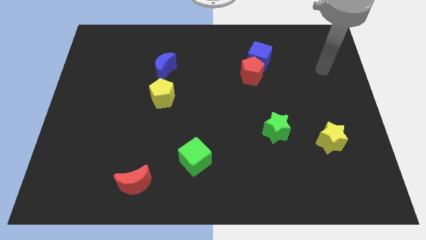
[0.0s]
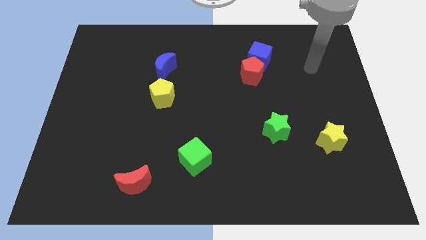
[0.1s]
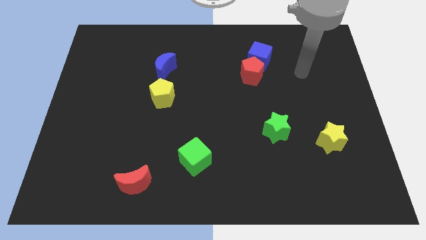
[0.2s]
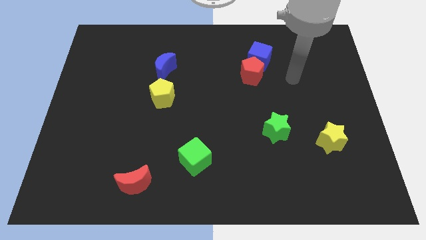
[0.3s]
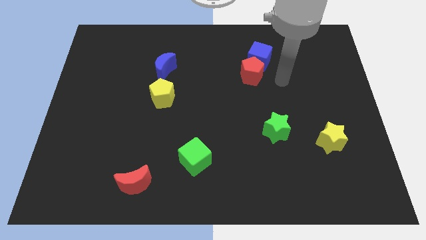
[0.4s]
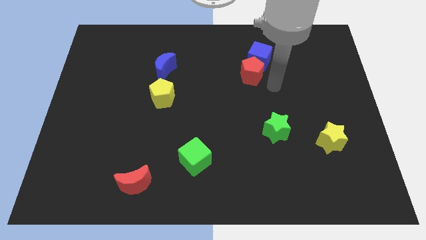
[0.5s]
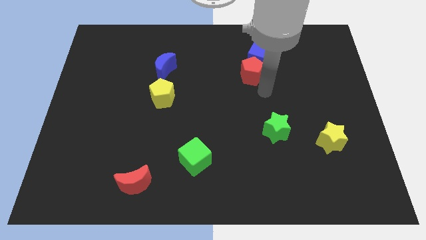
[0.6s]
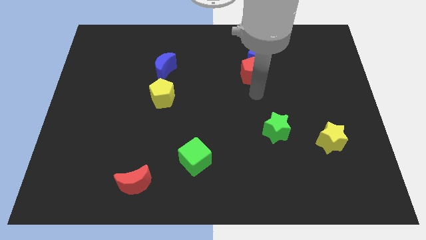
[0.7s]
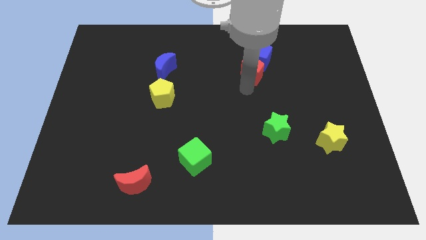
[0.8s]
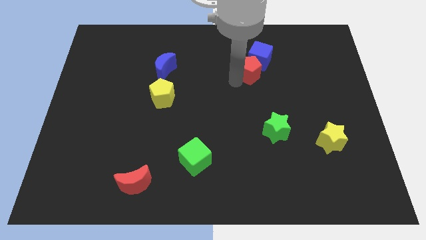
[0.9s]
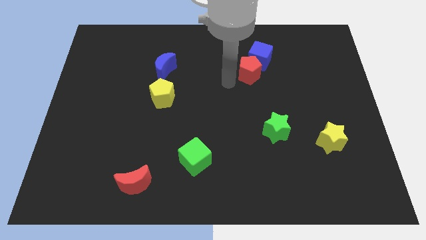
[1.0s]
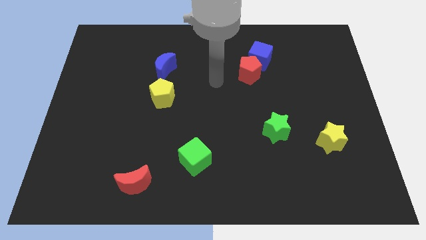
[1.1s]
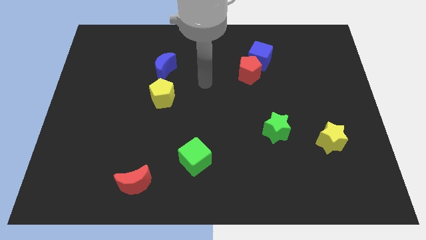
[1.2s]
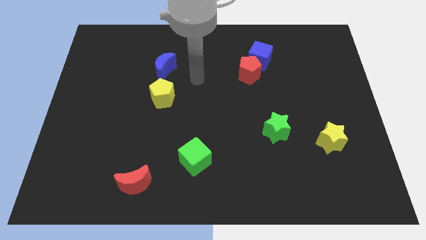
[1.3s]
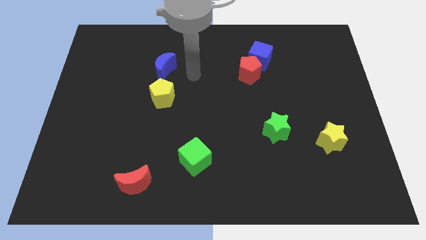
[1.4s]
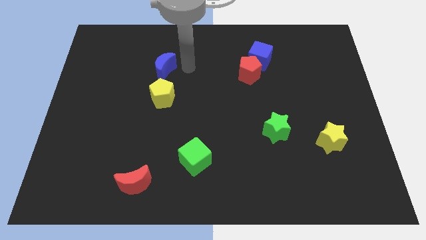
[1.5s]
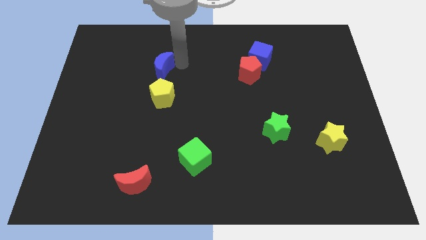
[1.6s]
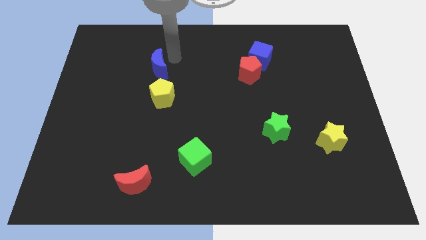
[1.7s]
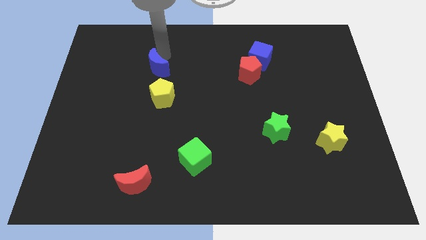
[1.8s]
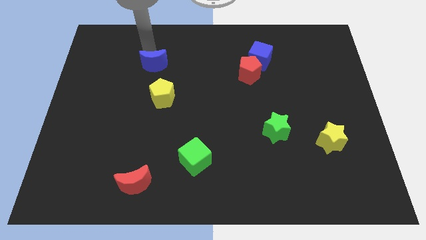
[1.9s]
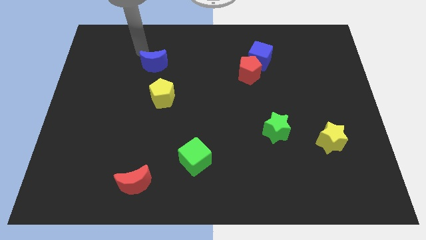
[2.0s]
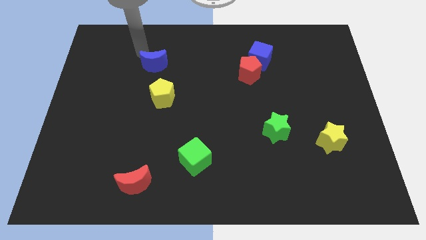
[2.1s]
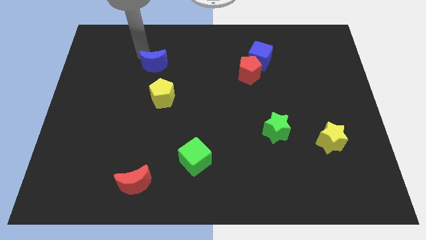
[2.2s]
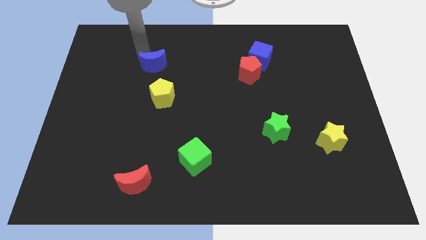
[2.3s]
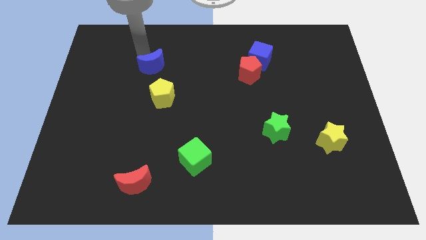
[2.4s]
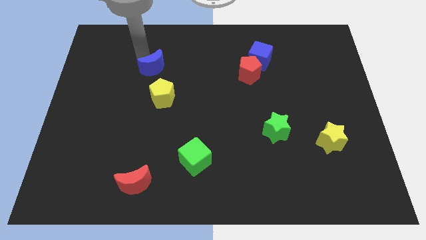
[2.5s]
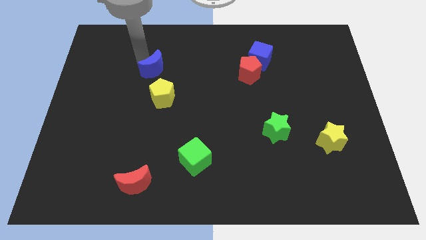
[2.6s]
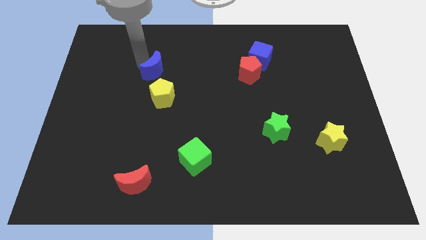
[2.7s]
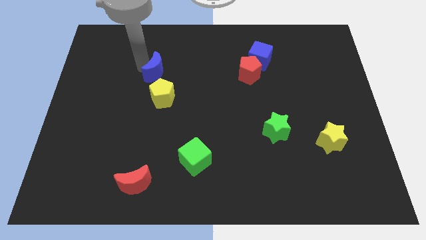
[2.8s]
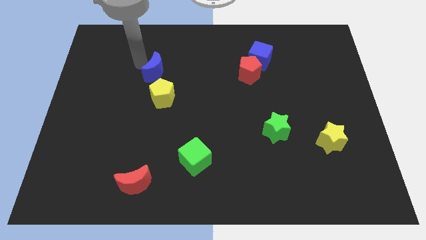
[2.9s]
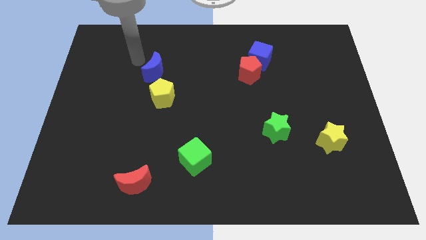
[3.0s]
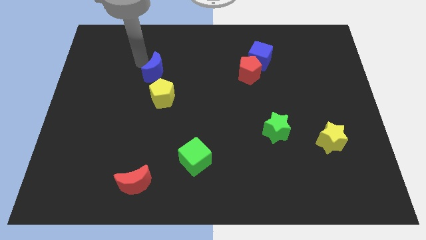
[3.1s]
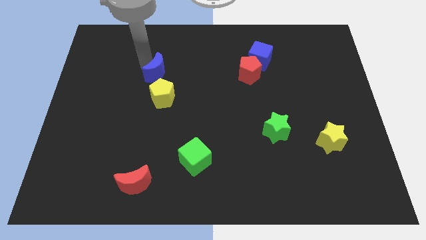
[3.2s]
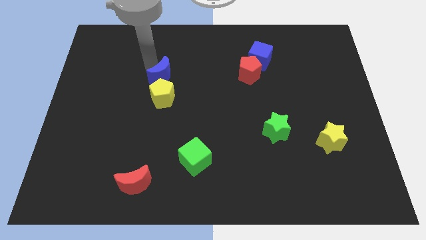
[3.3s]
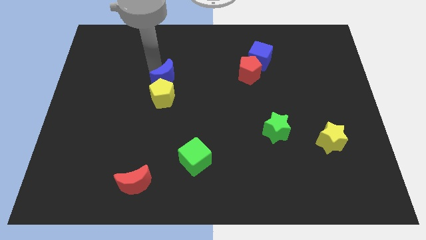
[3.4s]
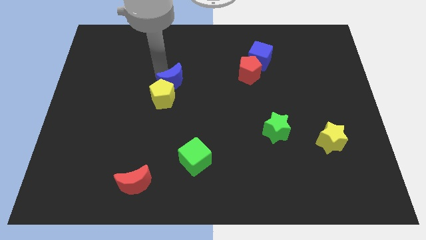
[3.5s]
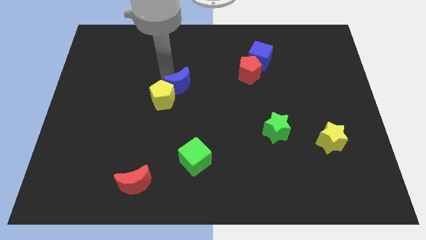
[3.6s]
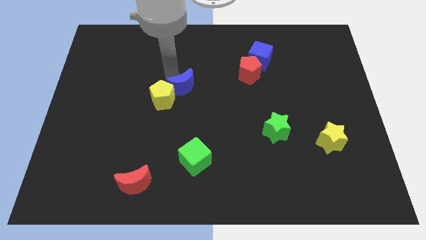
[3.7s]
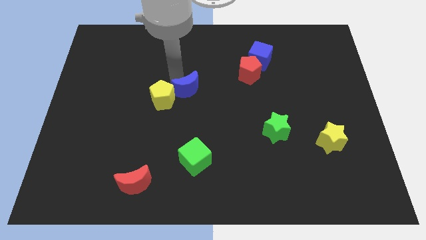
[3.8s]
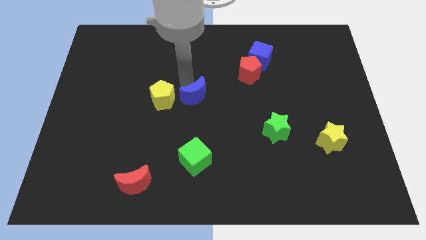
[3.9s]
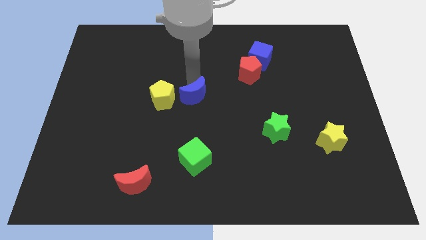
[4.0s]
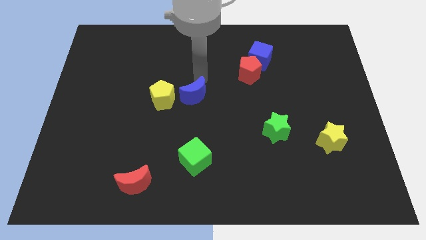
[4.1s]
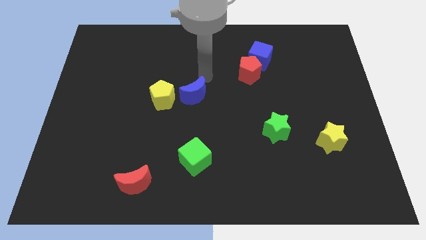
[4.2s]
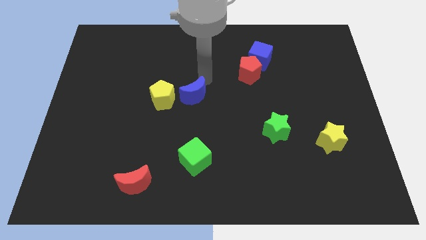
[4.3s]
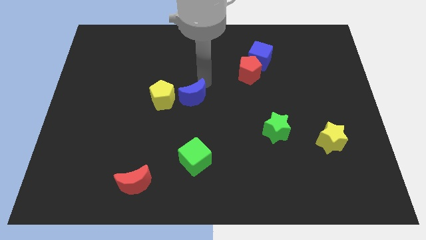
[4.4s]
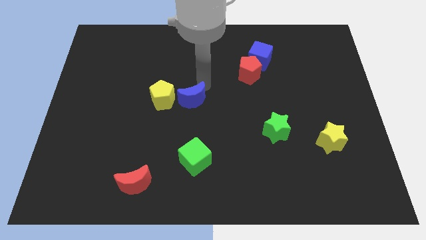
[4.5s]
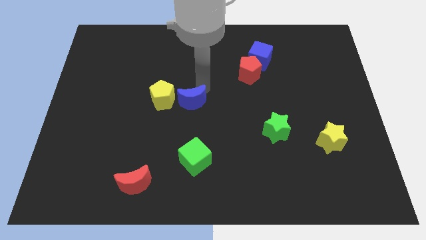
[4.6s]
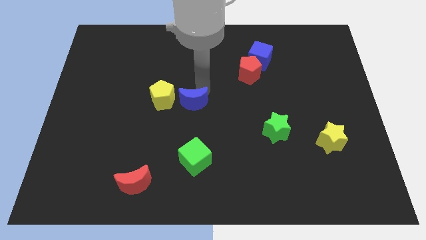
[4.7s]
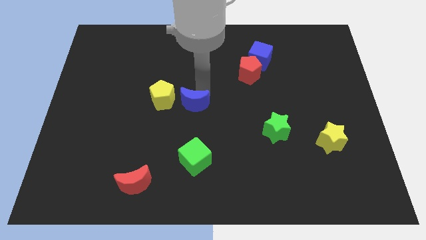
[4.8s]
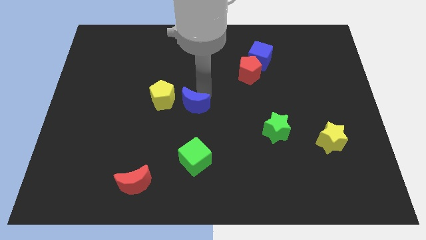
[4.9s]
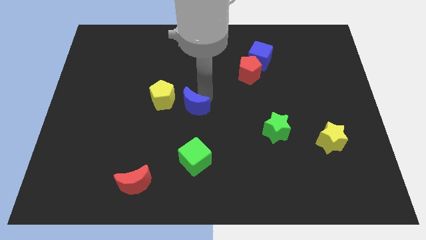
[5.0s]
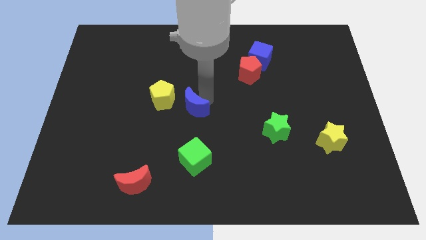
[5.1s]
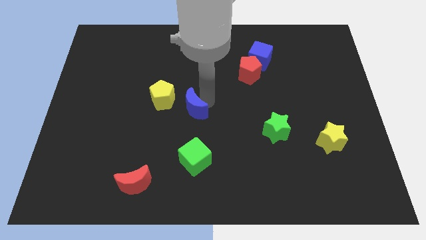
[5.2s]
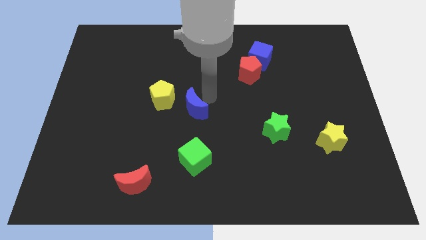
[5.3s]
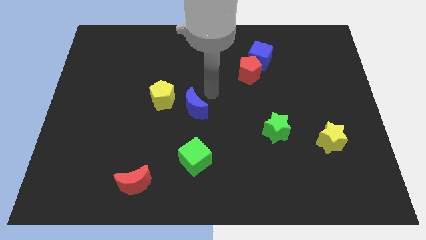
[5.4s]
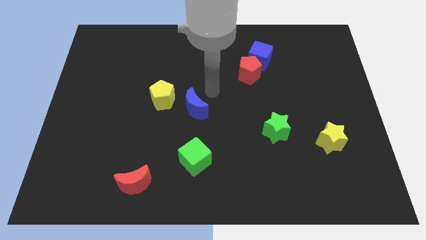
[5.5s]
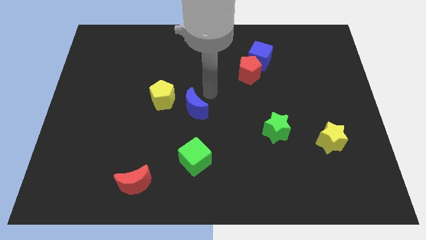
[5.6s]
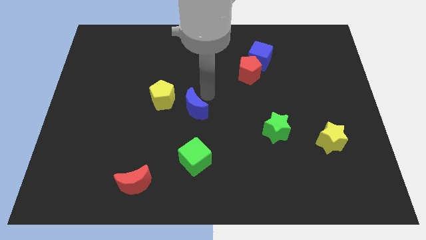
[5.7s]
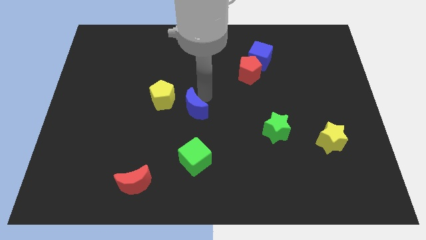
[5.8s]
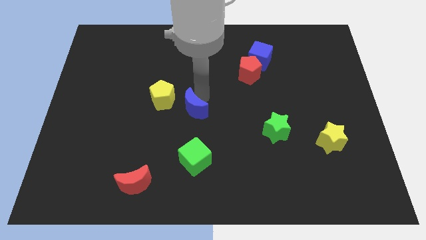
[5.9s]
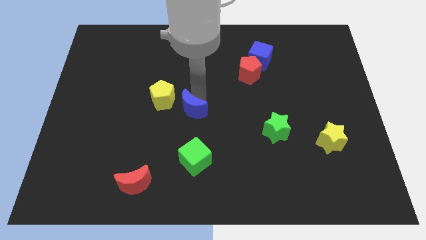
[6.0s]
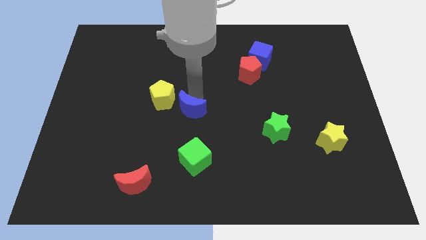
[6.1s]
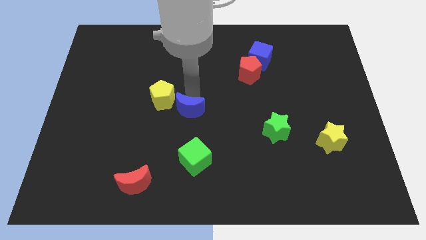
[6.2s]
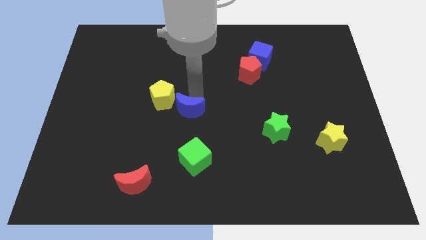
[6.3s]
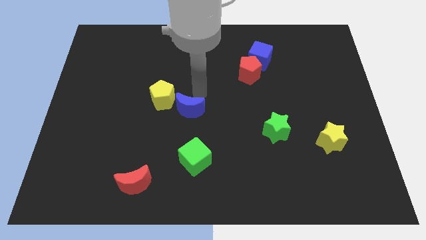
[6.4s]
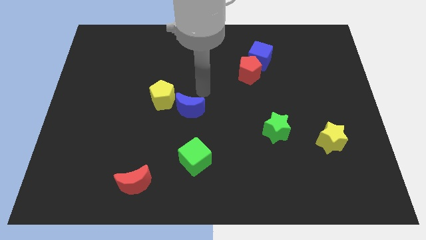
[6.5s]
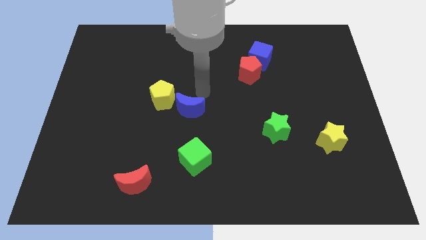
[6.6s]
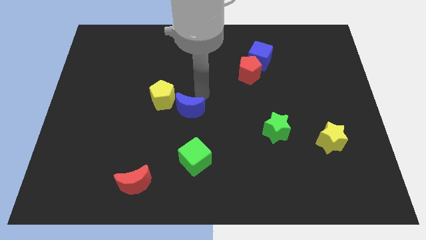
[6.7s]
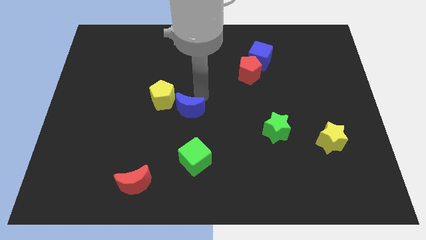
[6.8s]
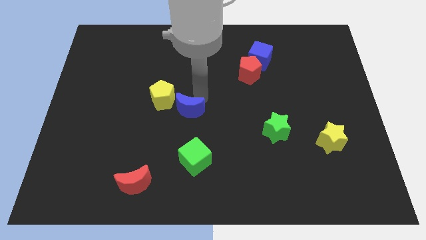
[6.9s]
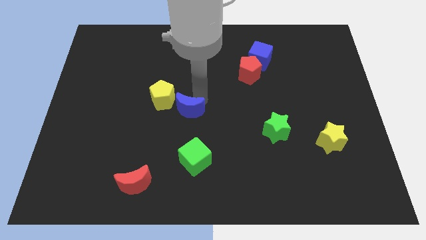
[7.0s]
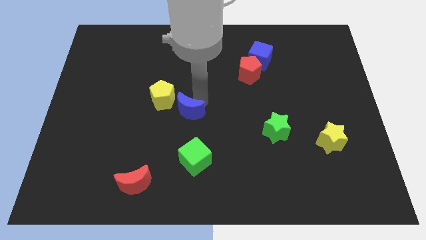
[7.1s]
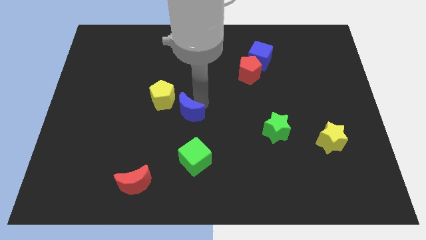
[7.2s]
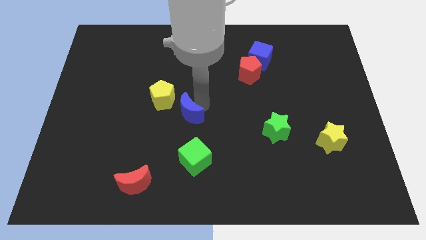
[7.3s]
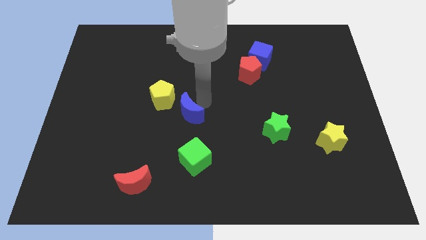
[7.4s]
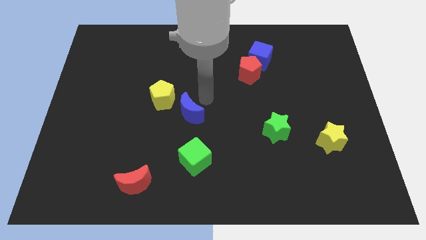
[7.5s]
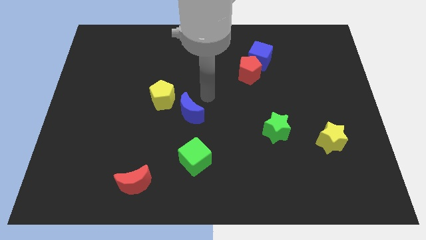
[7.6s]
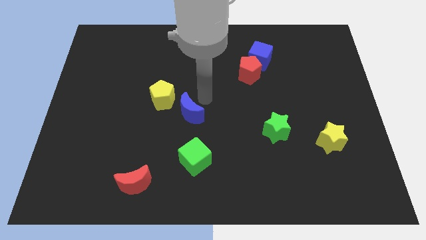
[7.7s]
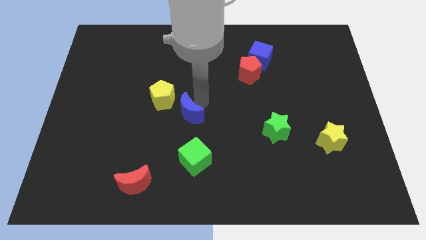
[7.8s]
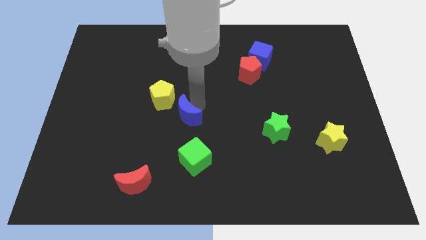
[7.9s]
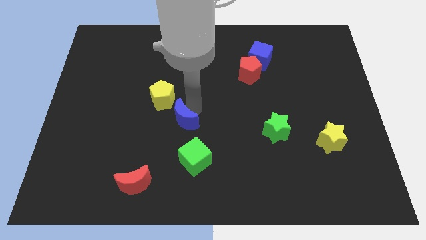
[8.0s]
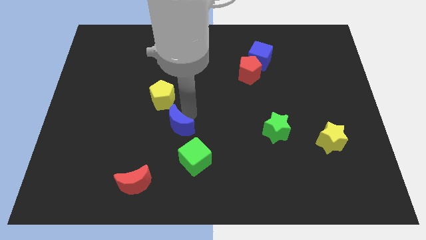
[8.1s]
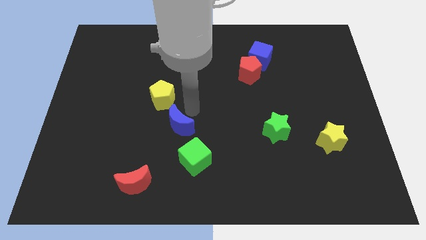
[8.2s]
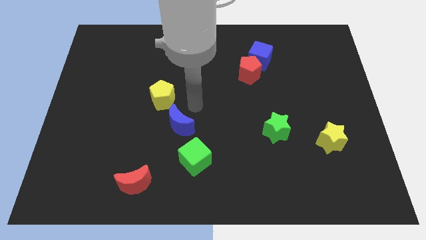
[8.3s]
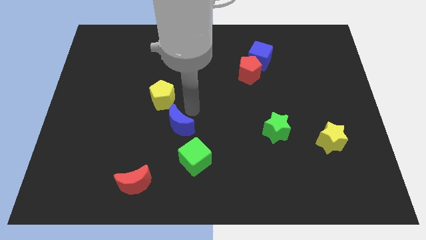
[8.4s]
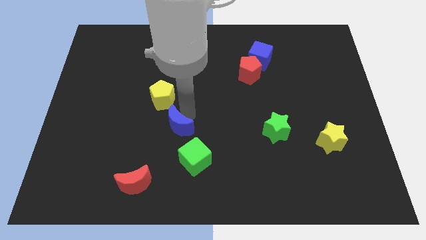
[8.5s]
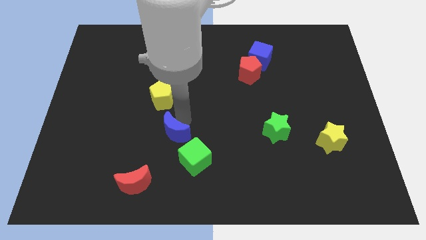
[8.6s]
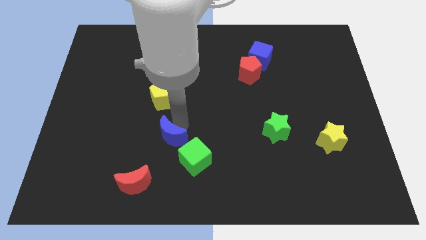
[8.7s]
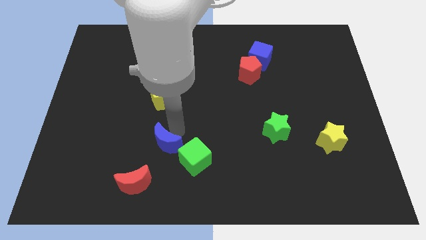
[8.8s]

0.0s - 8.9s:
push the blue moon left of the green cube
